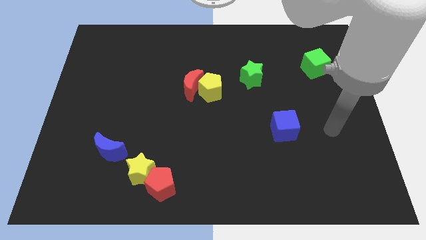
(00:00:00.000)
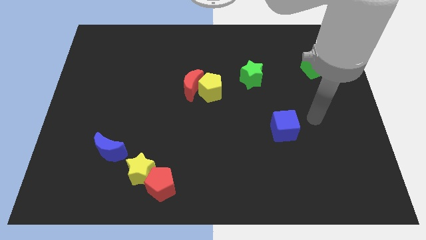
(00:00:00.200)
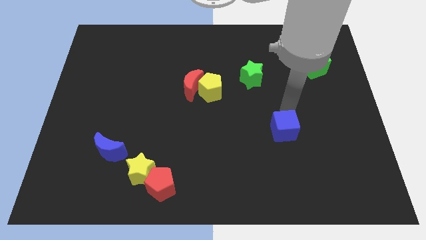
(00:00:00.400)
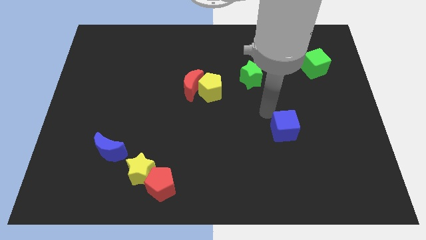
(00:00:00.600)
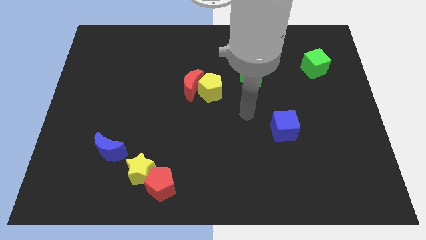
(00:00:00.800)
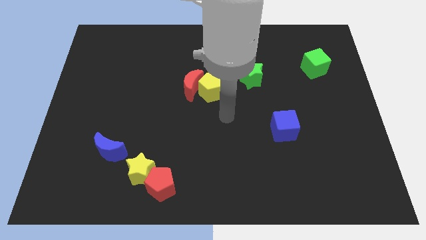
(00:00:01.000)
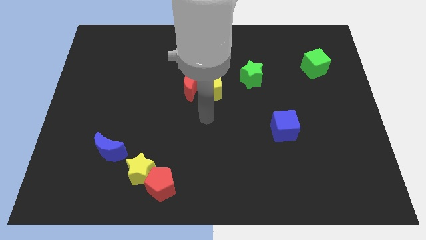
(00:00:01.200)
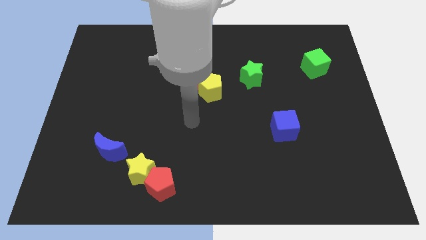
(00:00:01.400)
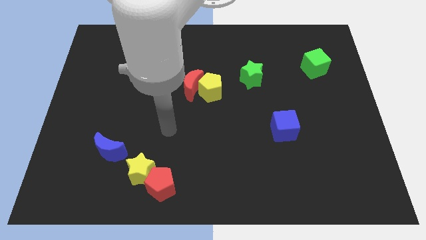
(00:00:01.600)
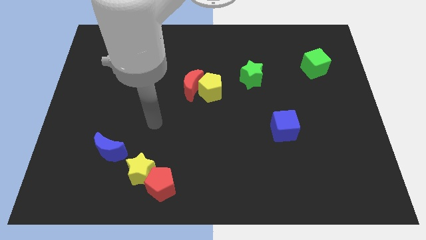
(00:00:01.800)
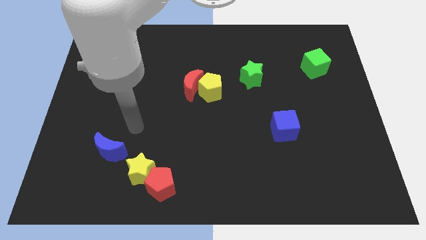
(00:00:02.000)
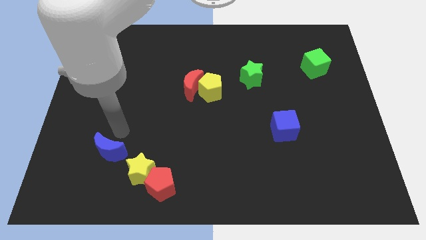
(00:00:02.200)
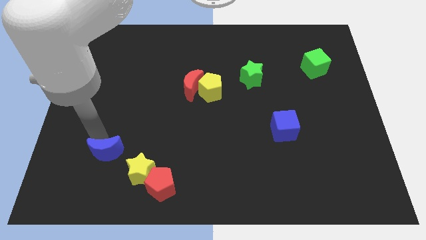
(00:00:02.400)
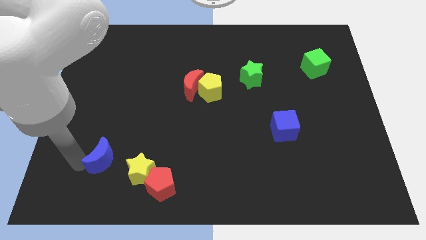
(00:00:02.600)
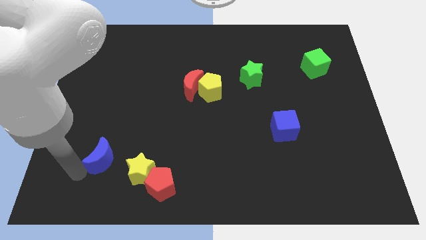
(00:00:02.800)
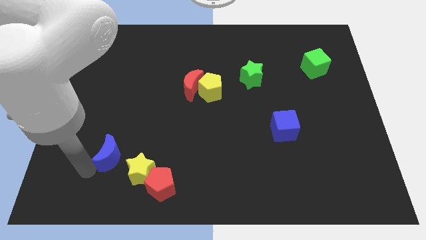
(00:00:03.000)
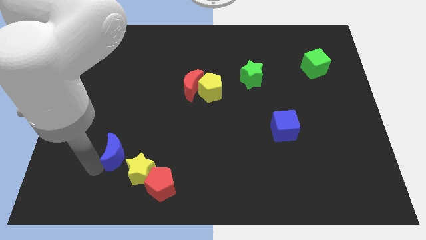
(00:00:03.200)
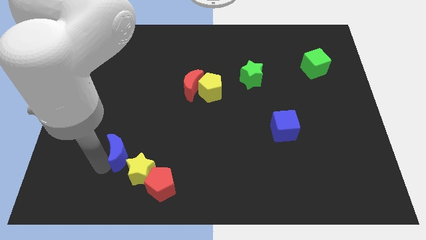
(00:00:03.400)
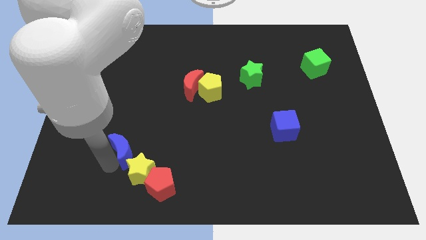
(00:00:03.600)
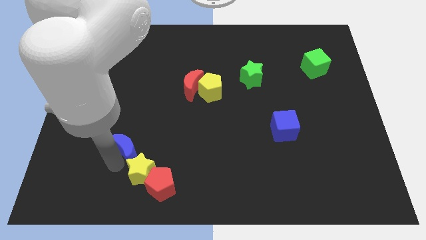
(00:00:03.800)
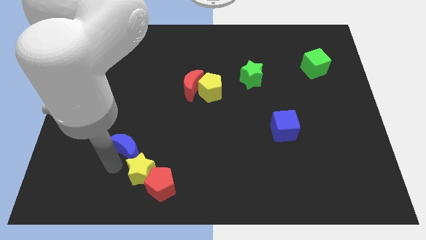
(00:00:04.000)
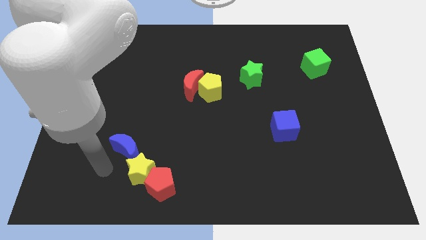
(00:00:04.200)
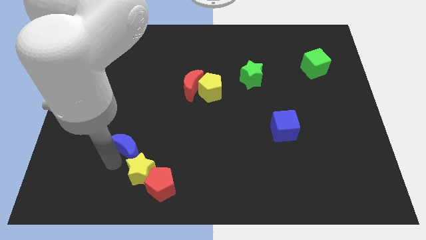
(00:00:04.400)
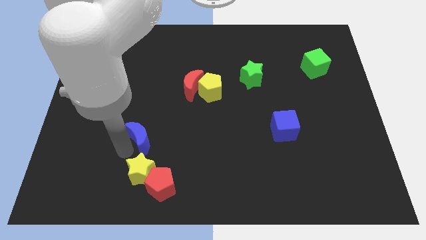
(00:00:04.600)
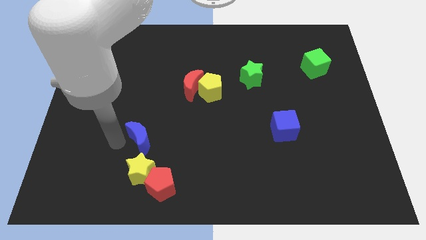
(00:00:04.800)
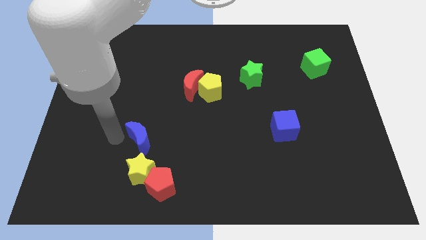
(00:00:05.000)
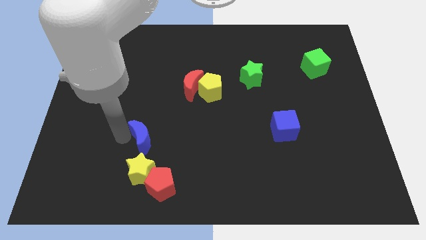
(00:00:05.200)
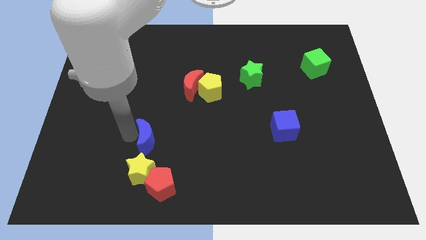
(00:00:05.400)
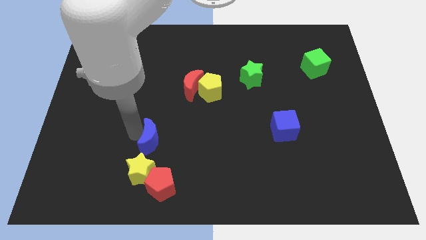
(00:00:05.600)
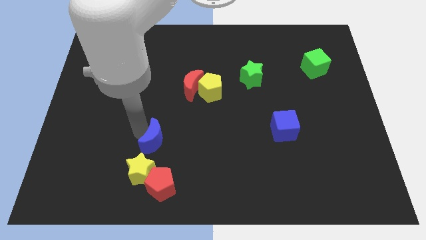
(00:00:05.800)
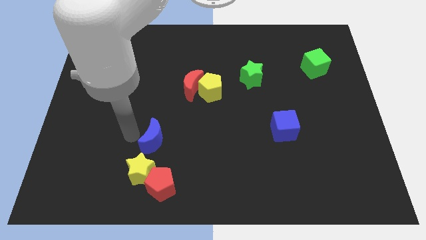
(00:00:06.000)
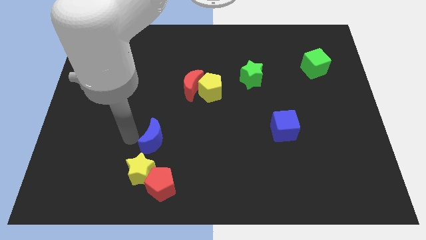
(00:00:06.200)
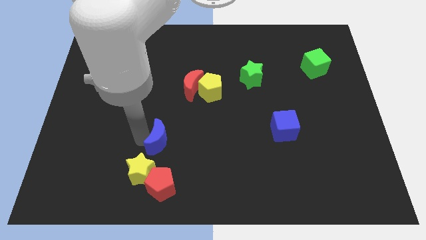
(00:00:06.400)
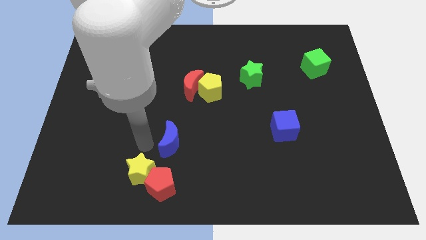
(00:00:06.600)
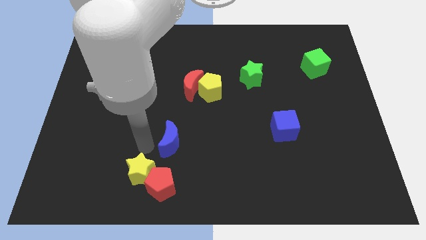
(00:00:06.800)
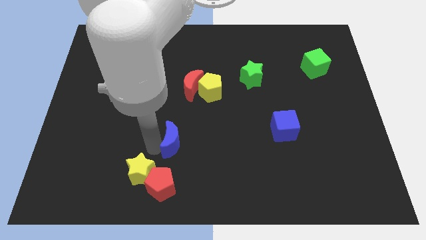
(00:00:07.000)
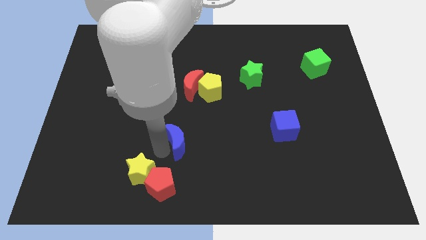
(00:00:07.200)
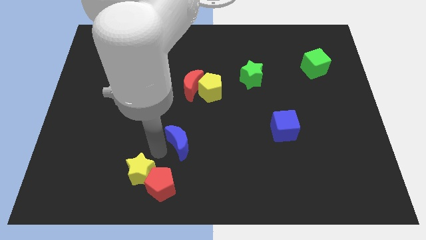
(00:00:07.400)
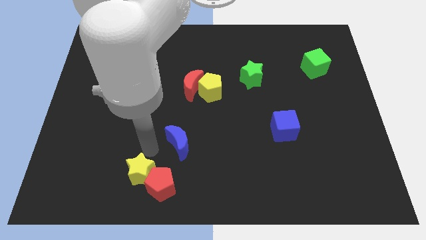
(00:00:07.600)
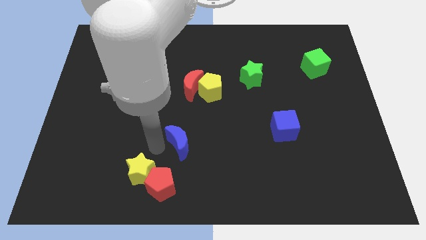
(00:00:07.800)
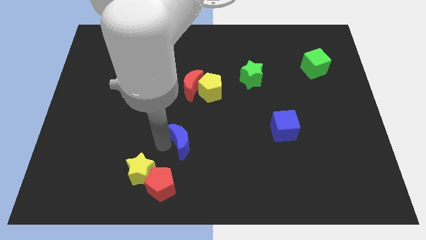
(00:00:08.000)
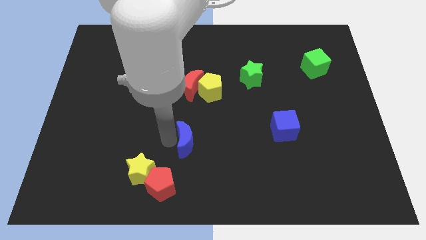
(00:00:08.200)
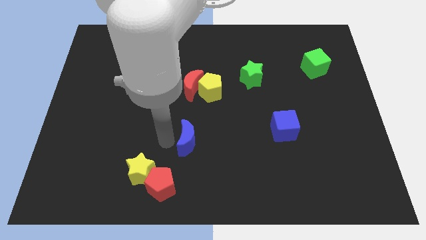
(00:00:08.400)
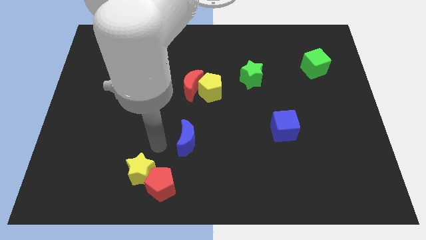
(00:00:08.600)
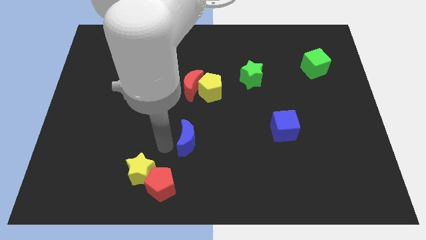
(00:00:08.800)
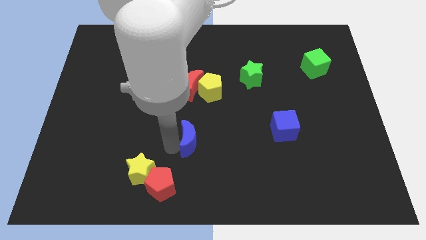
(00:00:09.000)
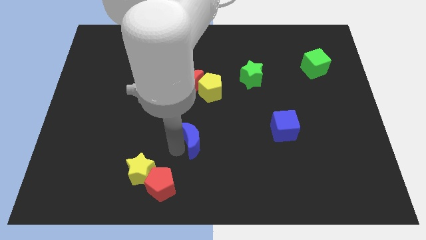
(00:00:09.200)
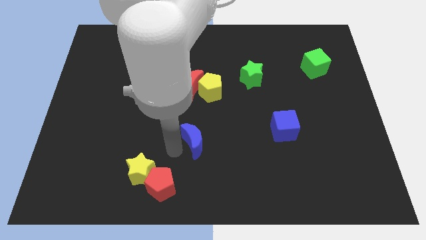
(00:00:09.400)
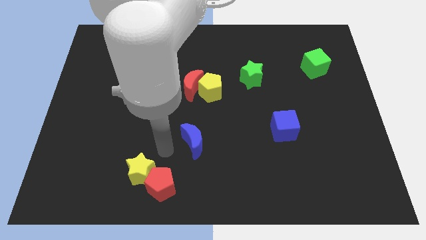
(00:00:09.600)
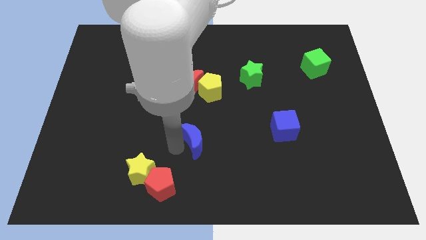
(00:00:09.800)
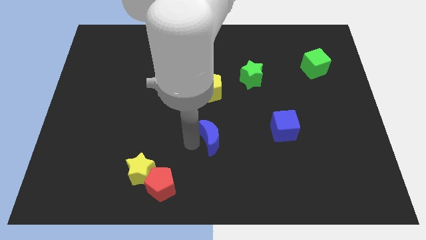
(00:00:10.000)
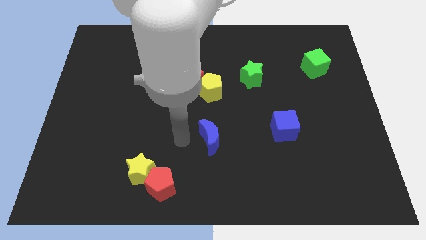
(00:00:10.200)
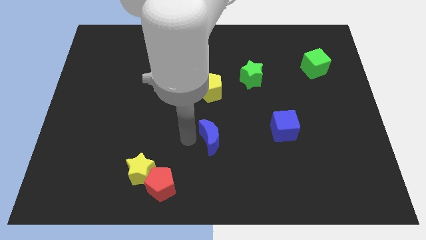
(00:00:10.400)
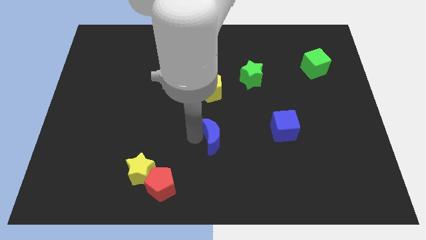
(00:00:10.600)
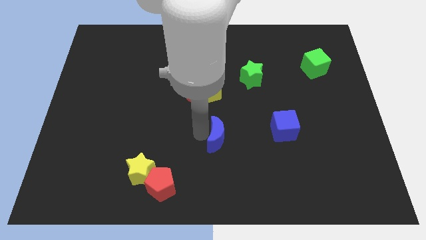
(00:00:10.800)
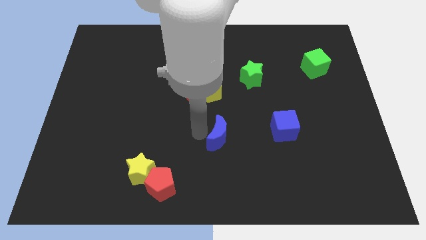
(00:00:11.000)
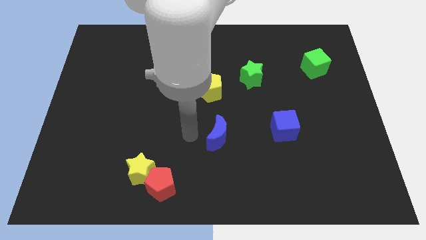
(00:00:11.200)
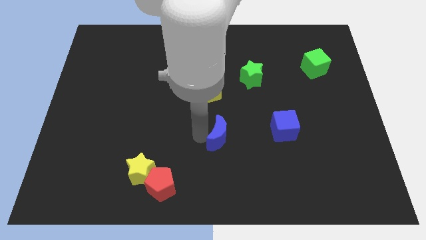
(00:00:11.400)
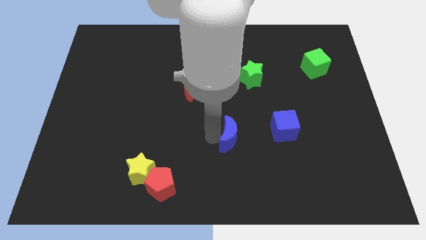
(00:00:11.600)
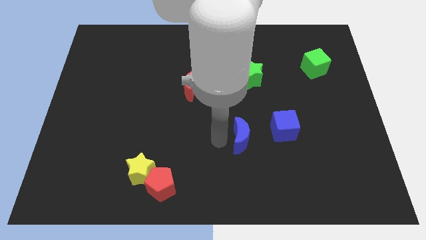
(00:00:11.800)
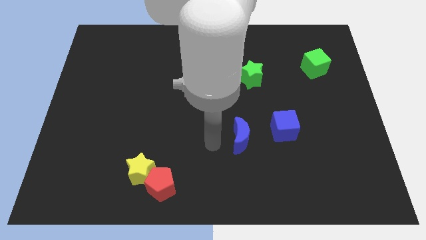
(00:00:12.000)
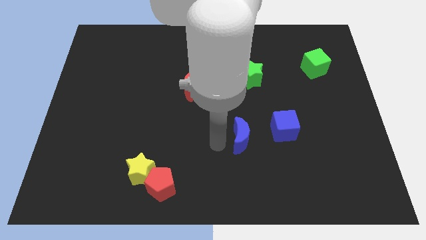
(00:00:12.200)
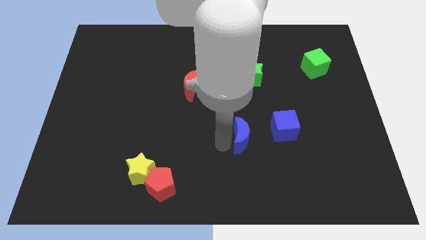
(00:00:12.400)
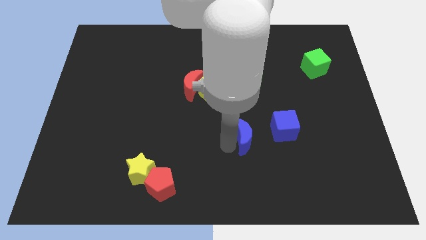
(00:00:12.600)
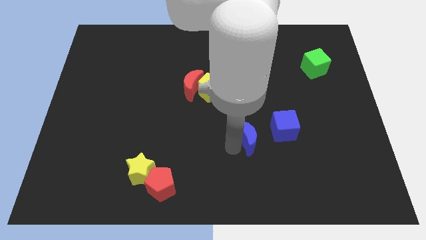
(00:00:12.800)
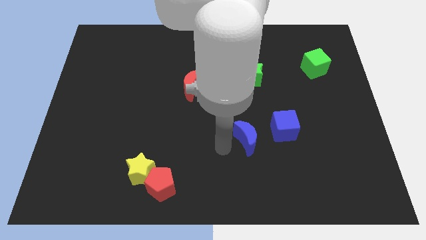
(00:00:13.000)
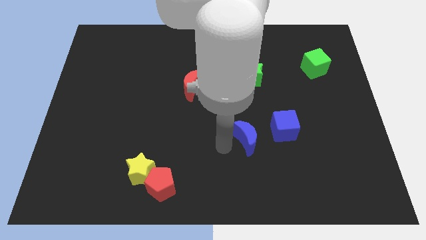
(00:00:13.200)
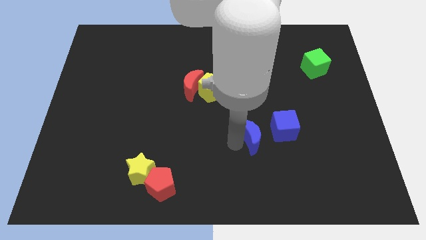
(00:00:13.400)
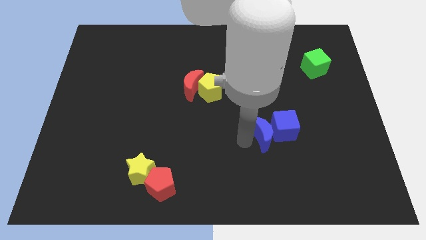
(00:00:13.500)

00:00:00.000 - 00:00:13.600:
move the blue moon to the blue cube

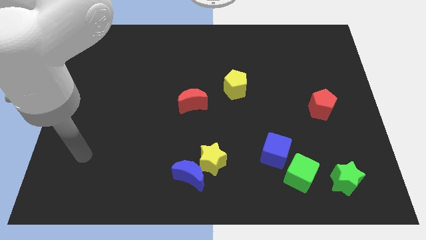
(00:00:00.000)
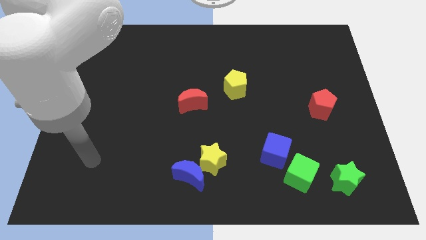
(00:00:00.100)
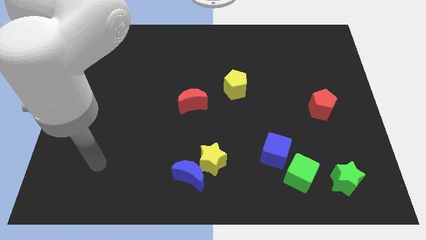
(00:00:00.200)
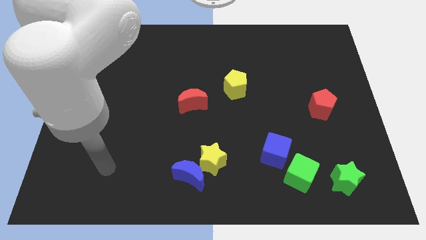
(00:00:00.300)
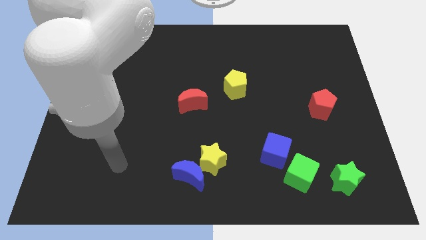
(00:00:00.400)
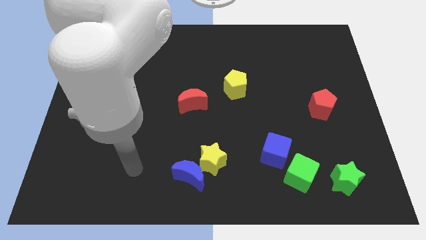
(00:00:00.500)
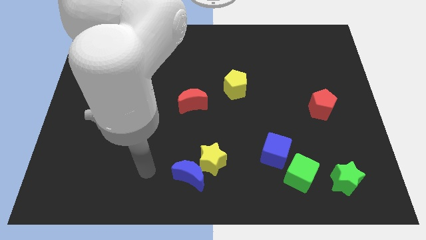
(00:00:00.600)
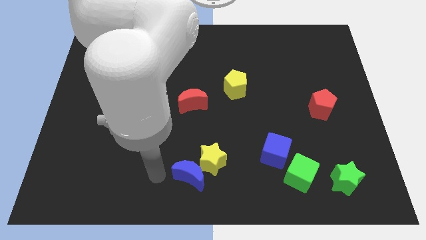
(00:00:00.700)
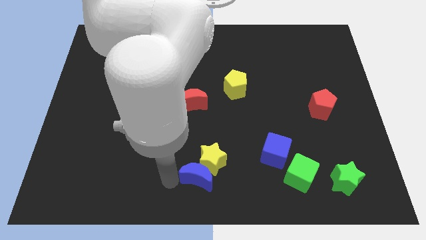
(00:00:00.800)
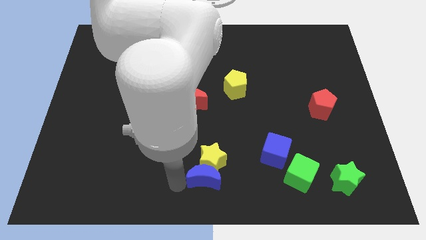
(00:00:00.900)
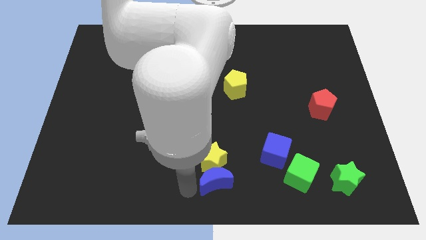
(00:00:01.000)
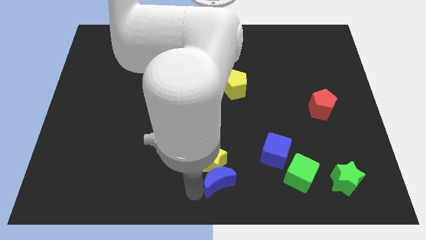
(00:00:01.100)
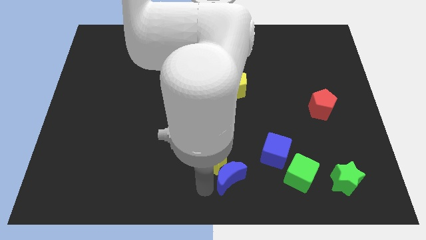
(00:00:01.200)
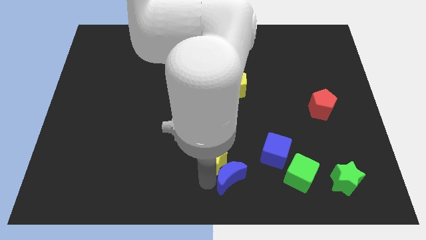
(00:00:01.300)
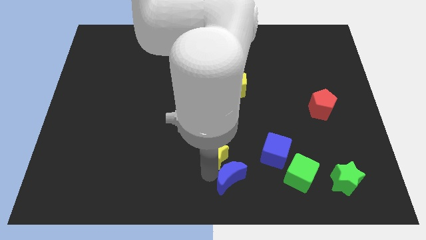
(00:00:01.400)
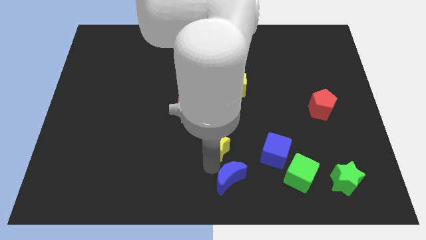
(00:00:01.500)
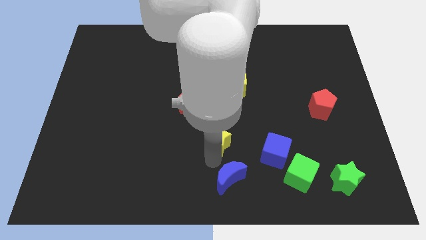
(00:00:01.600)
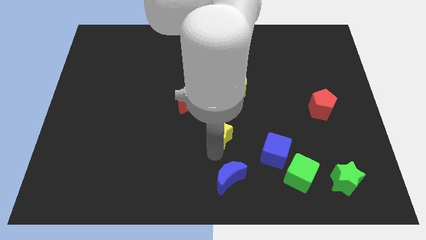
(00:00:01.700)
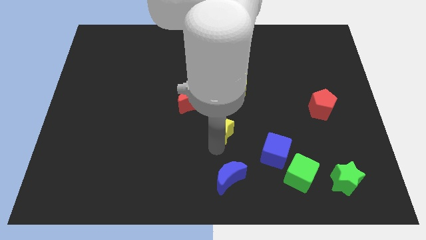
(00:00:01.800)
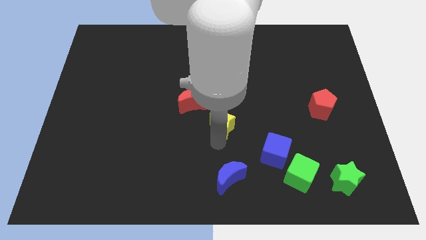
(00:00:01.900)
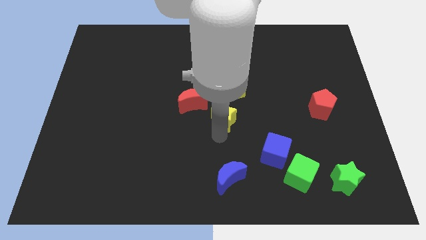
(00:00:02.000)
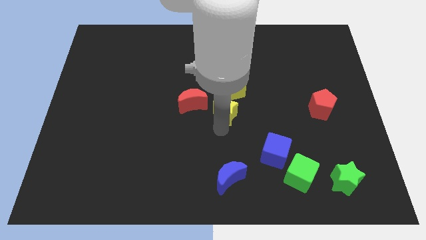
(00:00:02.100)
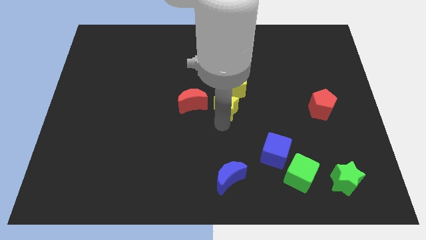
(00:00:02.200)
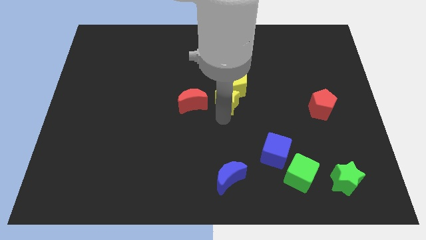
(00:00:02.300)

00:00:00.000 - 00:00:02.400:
slide the yellow star close to the yellow pentagon
